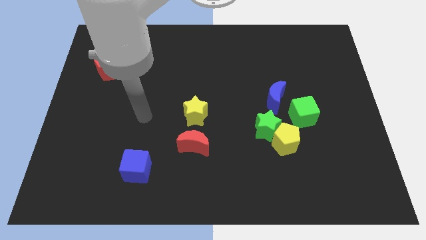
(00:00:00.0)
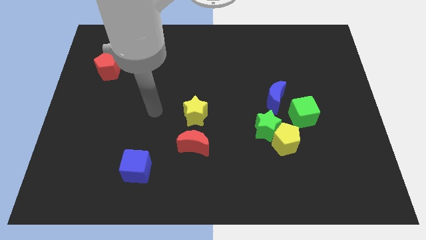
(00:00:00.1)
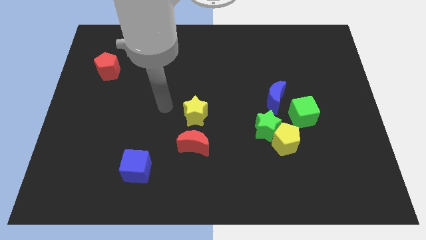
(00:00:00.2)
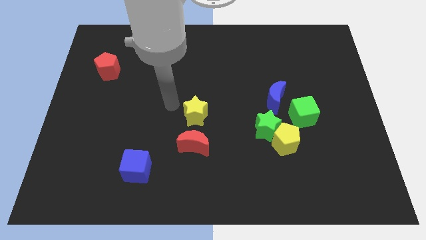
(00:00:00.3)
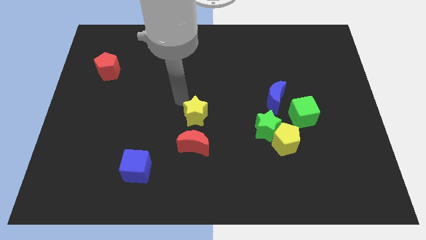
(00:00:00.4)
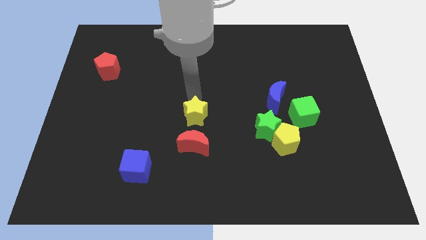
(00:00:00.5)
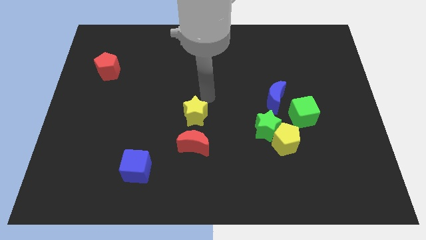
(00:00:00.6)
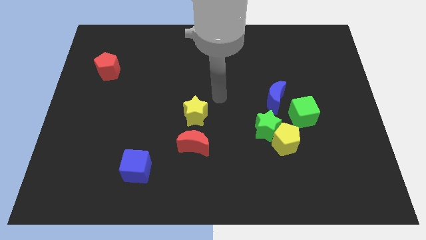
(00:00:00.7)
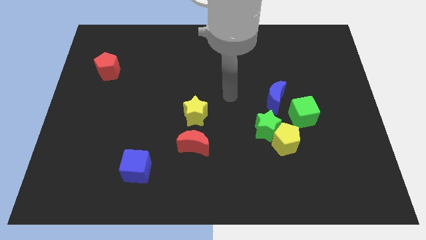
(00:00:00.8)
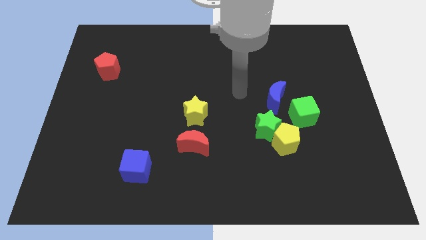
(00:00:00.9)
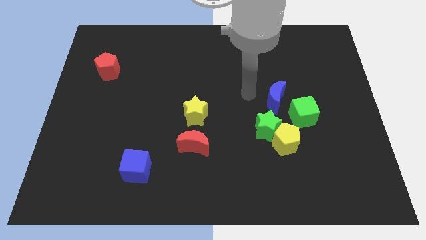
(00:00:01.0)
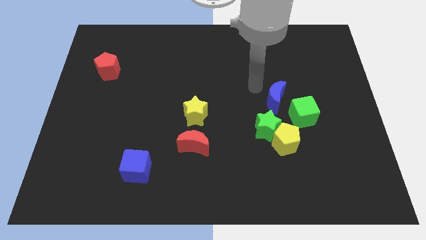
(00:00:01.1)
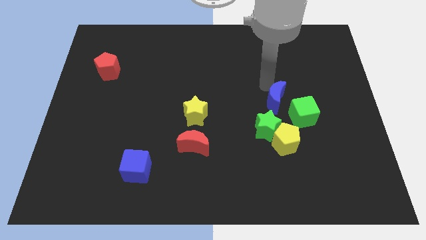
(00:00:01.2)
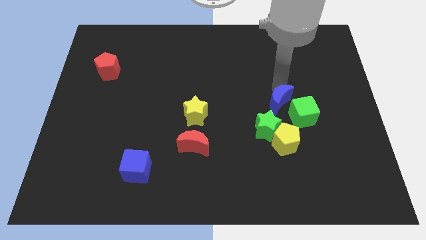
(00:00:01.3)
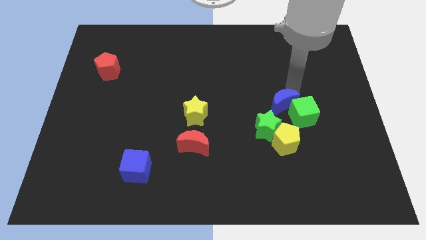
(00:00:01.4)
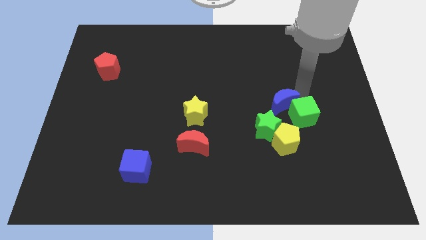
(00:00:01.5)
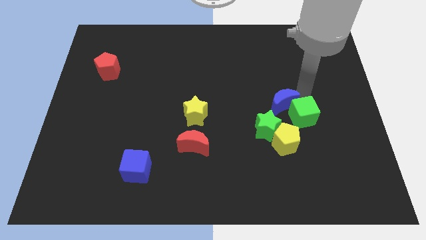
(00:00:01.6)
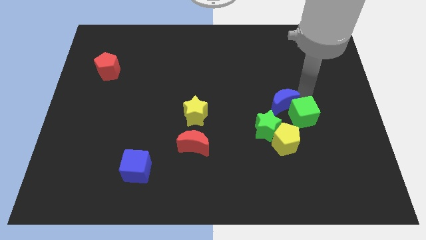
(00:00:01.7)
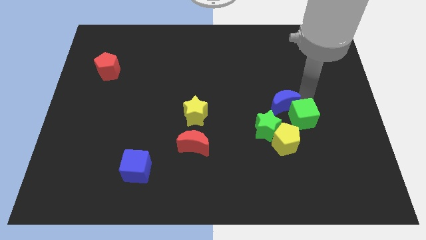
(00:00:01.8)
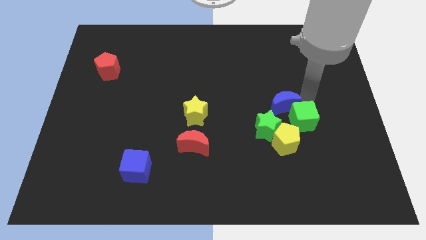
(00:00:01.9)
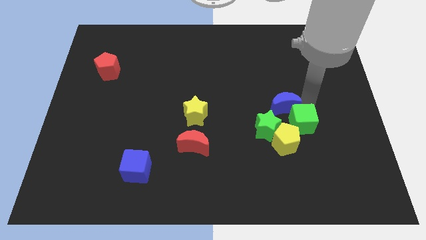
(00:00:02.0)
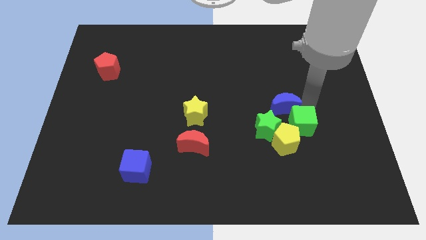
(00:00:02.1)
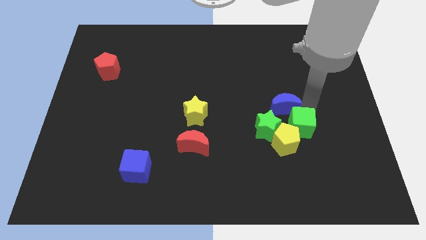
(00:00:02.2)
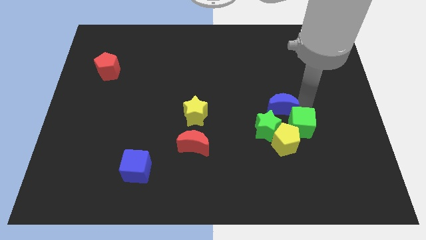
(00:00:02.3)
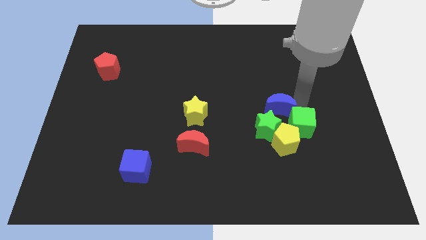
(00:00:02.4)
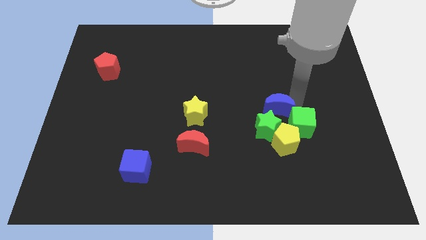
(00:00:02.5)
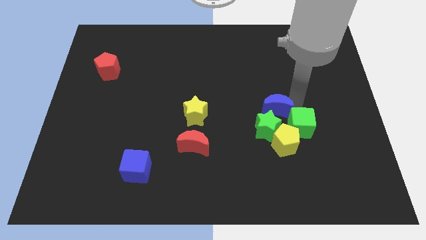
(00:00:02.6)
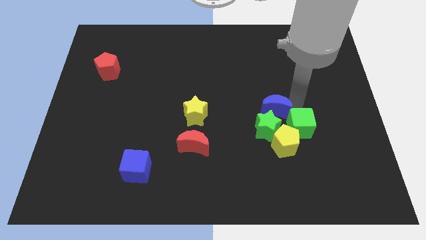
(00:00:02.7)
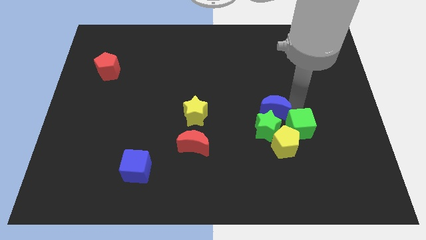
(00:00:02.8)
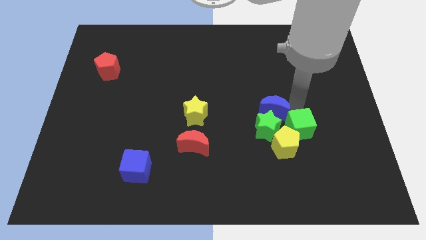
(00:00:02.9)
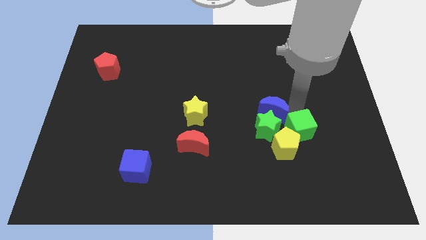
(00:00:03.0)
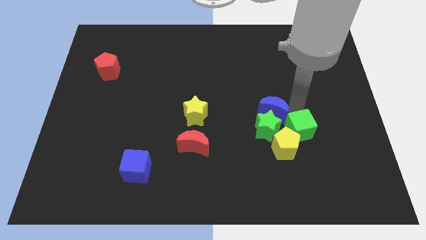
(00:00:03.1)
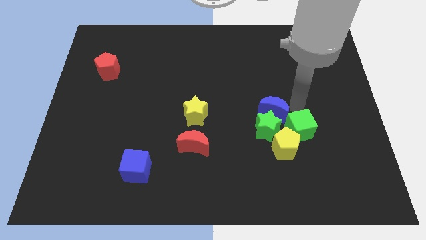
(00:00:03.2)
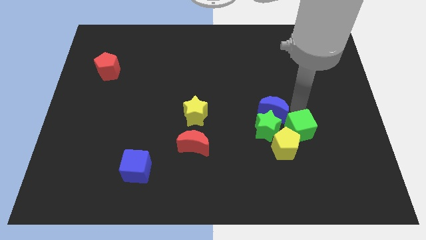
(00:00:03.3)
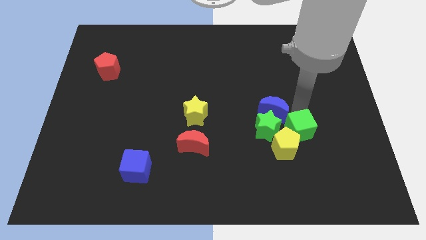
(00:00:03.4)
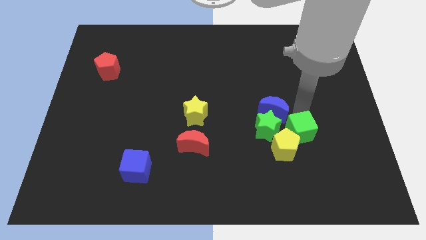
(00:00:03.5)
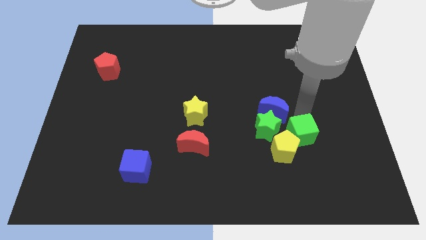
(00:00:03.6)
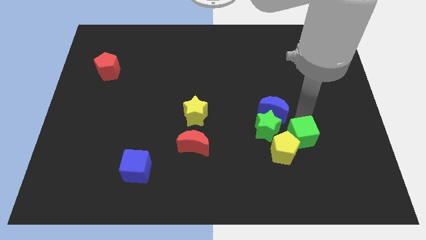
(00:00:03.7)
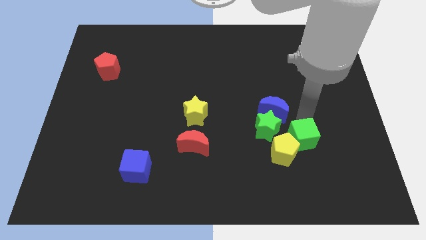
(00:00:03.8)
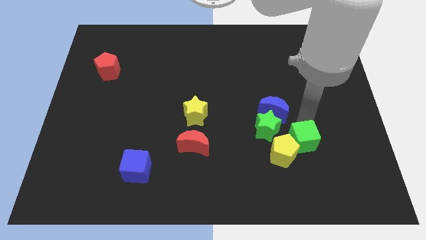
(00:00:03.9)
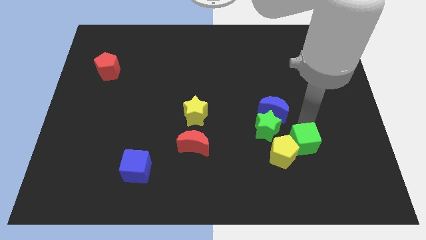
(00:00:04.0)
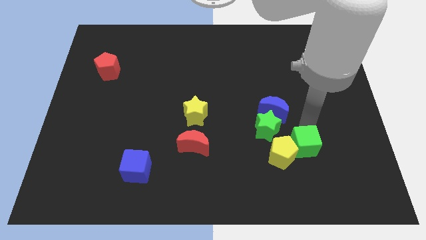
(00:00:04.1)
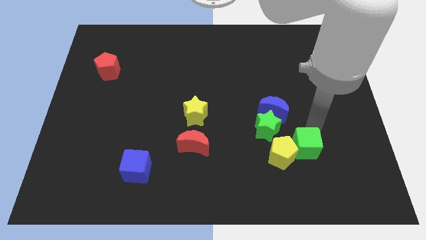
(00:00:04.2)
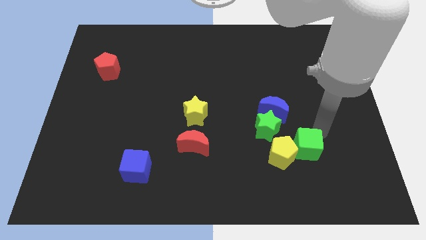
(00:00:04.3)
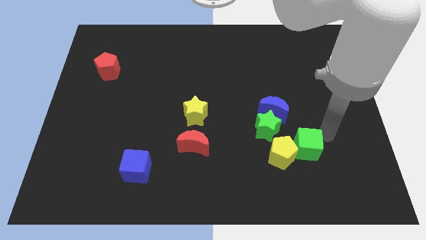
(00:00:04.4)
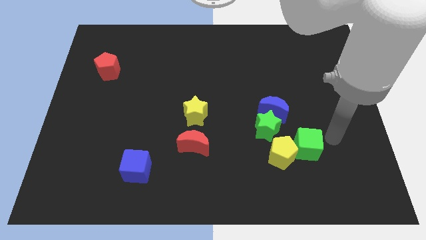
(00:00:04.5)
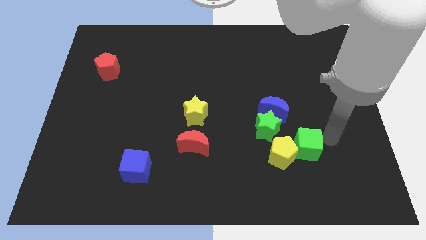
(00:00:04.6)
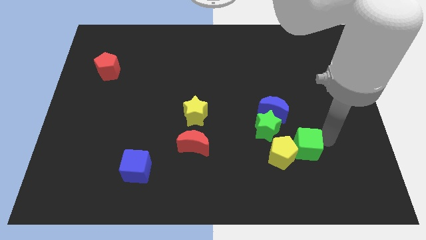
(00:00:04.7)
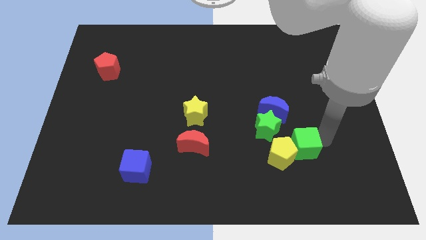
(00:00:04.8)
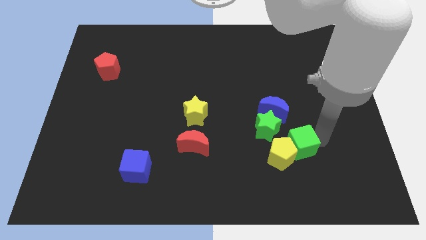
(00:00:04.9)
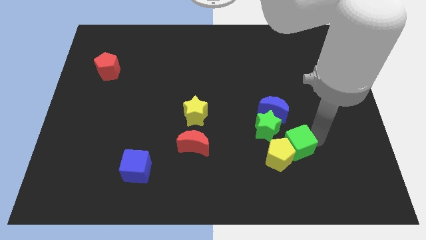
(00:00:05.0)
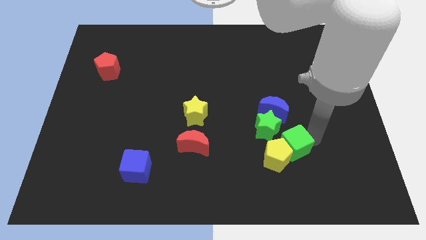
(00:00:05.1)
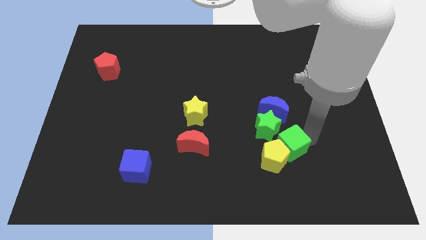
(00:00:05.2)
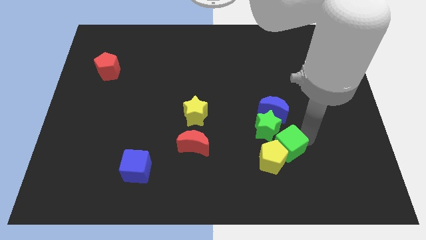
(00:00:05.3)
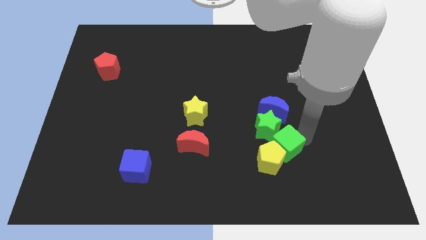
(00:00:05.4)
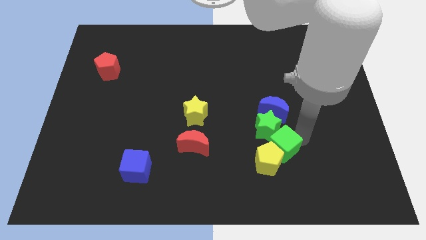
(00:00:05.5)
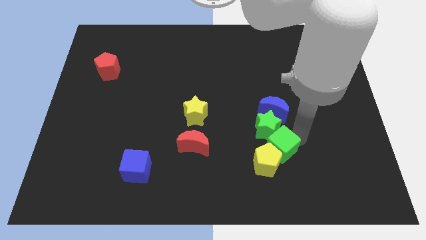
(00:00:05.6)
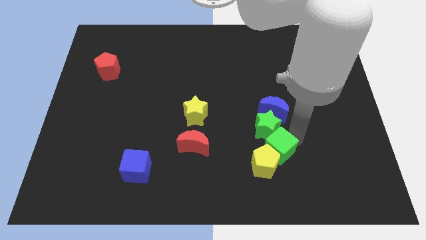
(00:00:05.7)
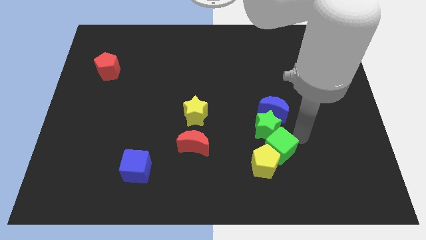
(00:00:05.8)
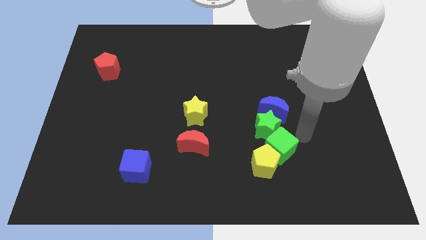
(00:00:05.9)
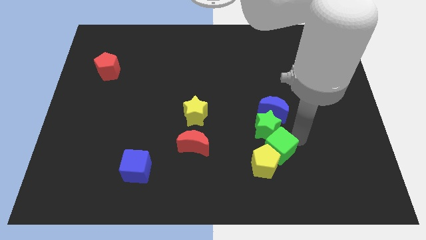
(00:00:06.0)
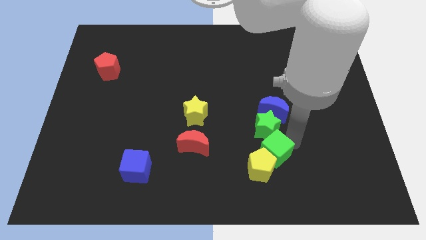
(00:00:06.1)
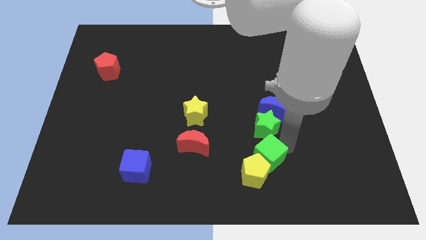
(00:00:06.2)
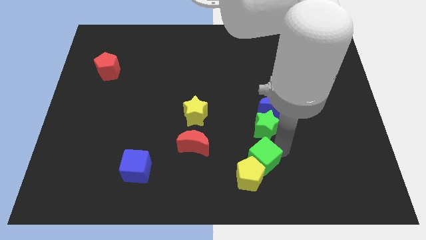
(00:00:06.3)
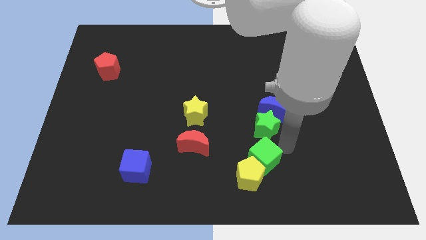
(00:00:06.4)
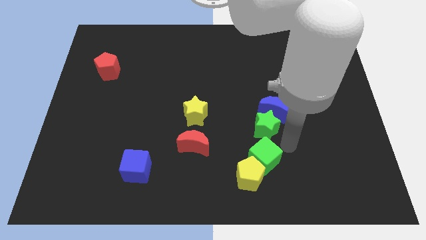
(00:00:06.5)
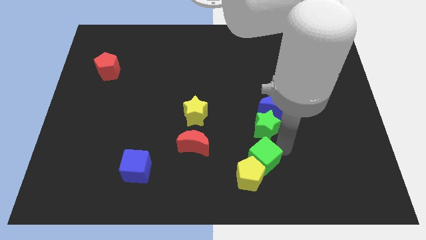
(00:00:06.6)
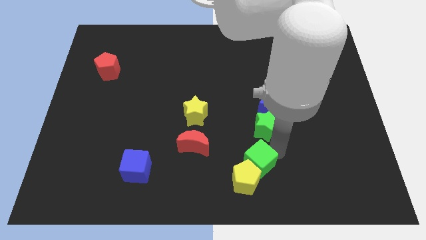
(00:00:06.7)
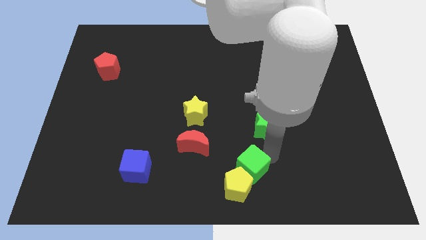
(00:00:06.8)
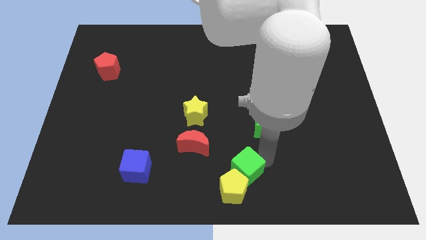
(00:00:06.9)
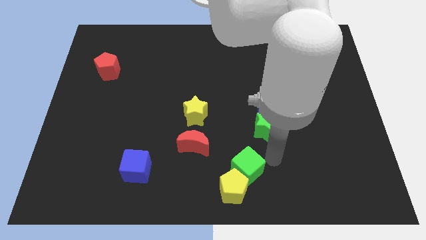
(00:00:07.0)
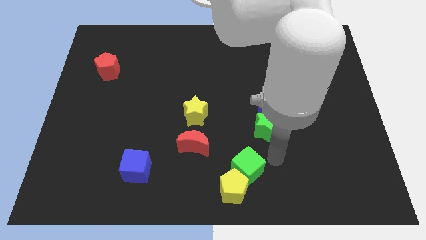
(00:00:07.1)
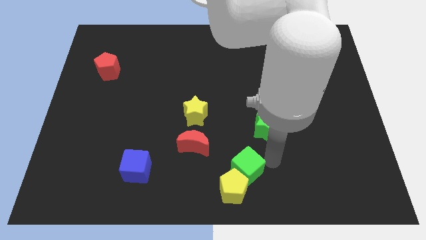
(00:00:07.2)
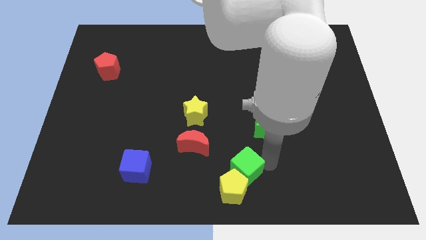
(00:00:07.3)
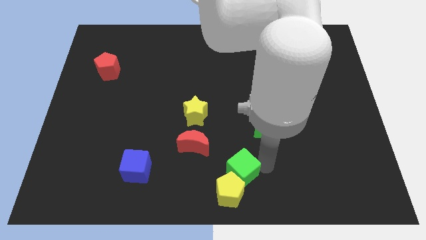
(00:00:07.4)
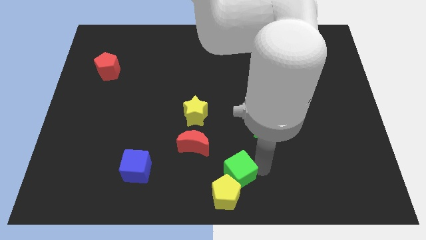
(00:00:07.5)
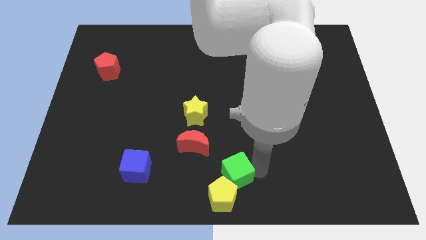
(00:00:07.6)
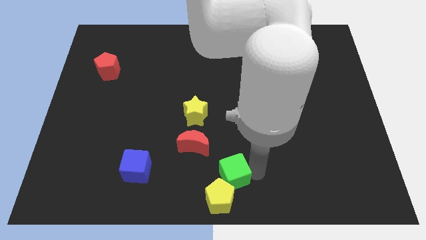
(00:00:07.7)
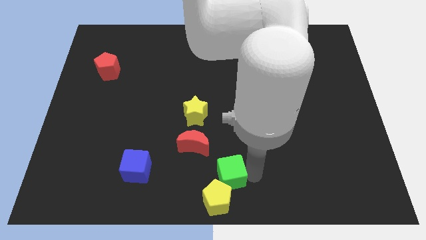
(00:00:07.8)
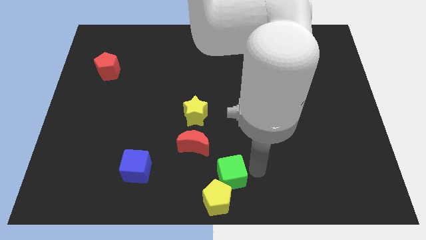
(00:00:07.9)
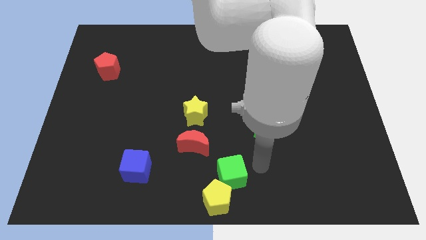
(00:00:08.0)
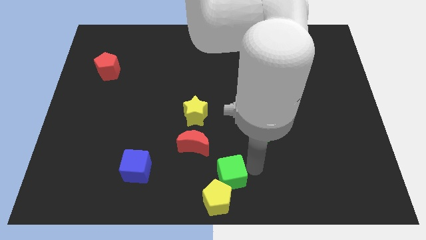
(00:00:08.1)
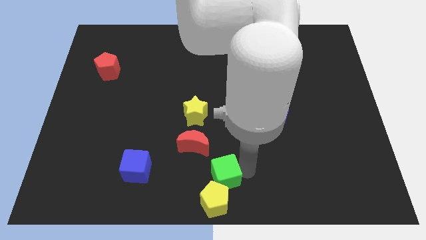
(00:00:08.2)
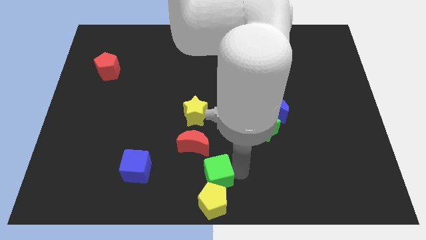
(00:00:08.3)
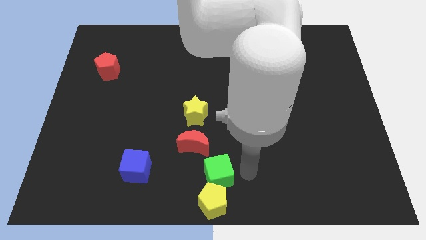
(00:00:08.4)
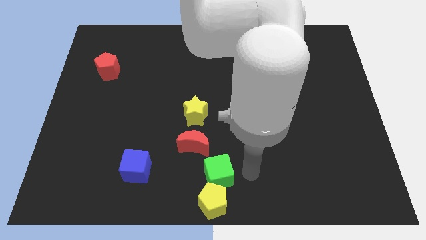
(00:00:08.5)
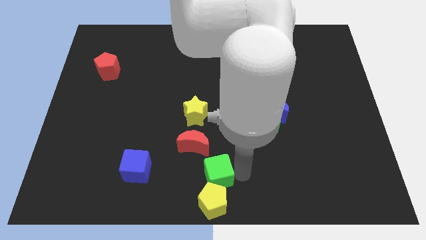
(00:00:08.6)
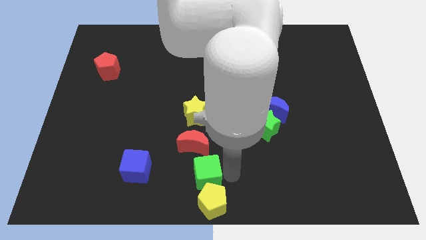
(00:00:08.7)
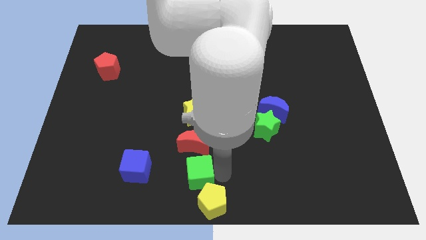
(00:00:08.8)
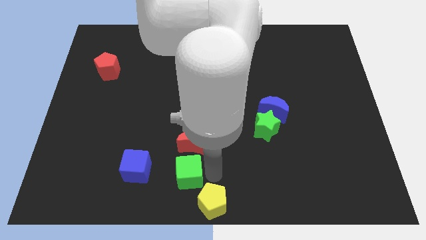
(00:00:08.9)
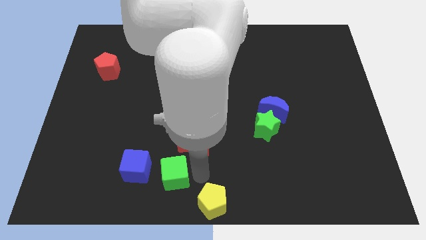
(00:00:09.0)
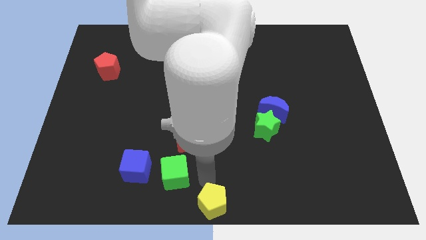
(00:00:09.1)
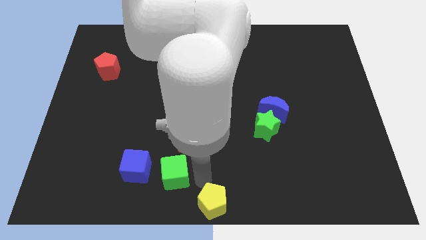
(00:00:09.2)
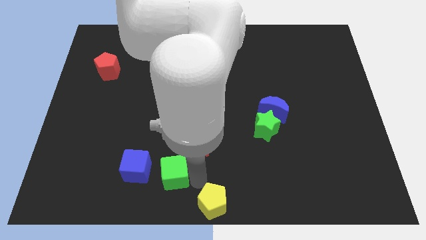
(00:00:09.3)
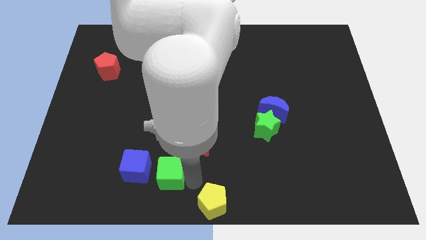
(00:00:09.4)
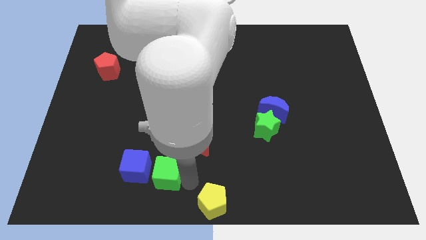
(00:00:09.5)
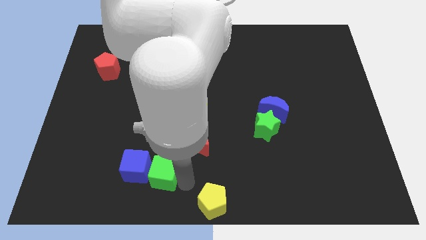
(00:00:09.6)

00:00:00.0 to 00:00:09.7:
put the green cube next to the blue cube
